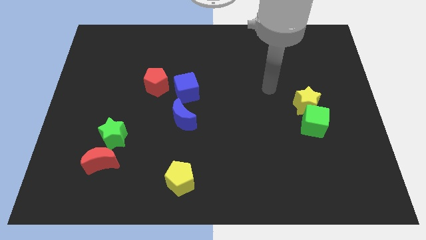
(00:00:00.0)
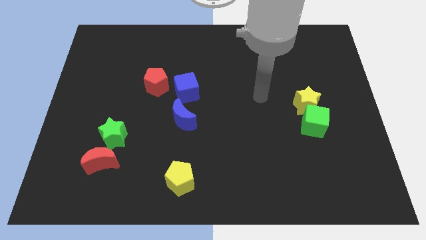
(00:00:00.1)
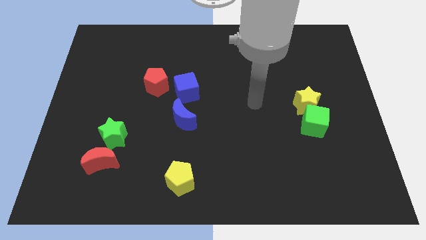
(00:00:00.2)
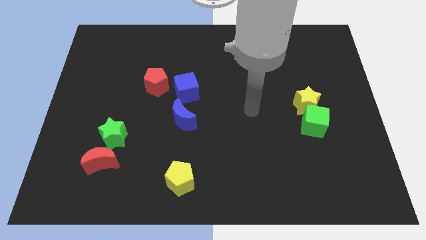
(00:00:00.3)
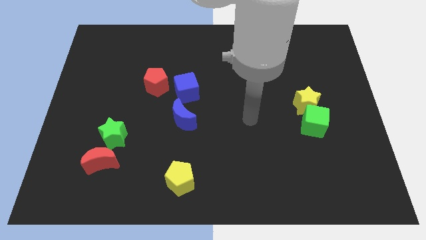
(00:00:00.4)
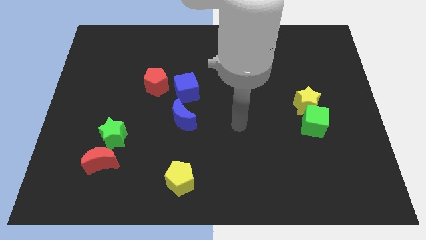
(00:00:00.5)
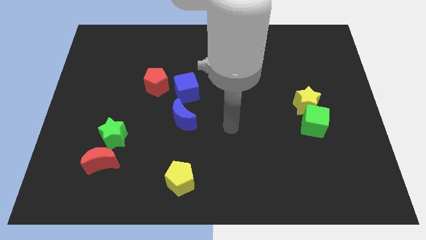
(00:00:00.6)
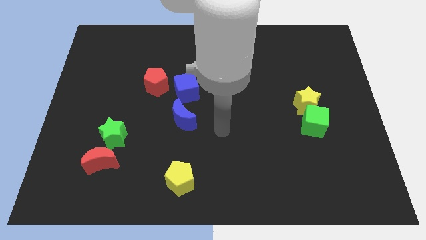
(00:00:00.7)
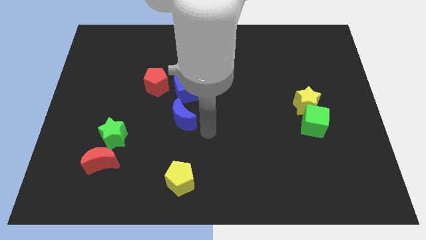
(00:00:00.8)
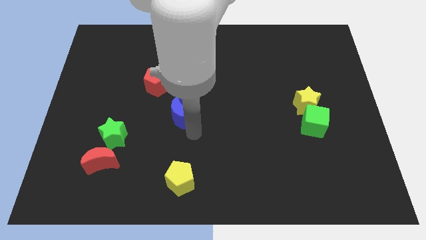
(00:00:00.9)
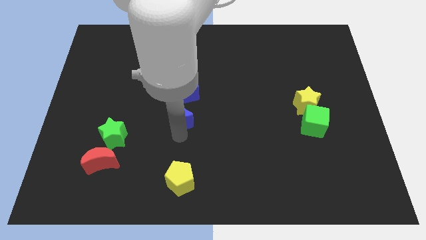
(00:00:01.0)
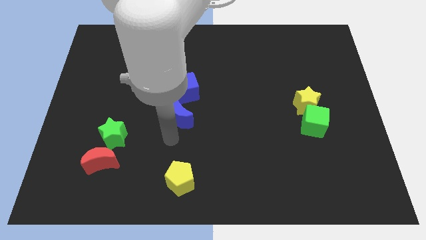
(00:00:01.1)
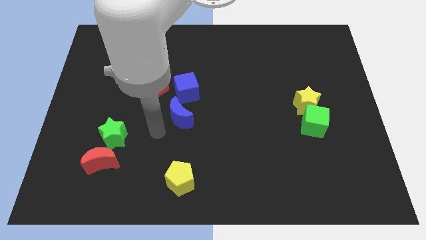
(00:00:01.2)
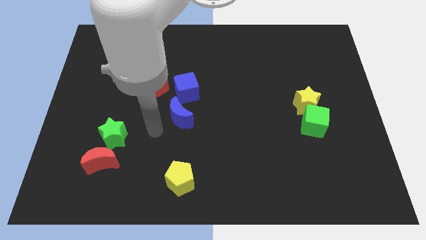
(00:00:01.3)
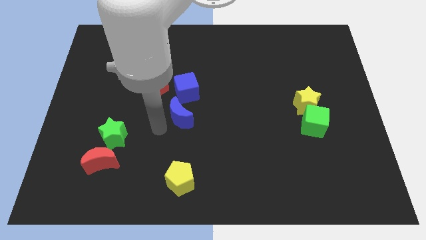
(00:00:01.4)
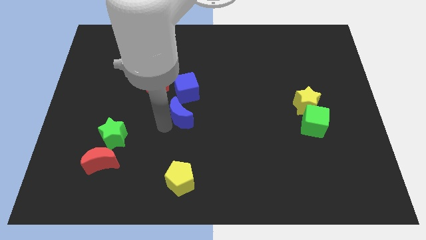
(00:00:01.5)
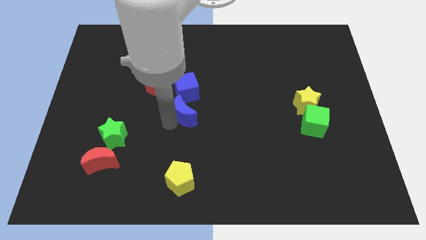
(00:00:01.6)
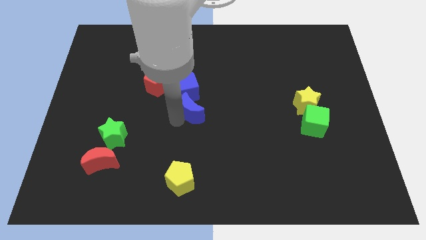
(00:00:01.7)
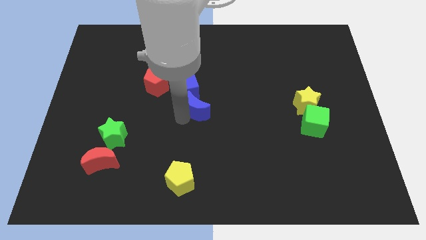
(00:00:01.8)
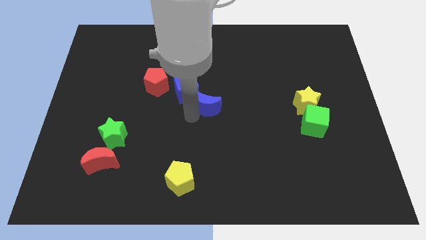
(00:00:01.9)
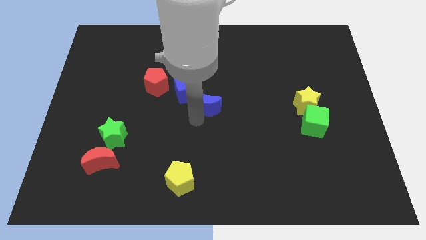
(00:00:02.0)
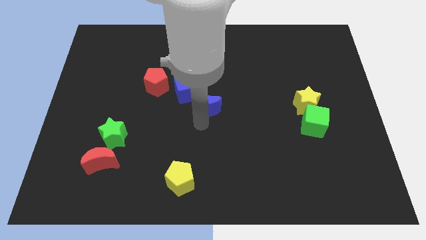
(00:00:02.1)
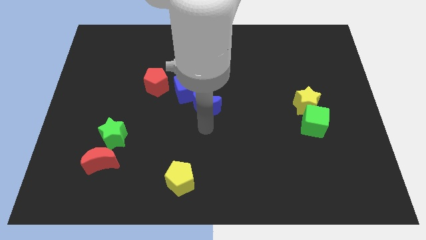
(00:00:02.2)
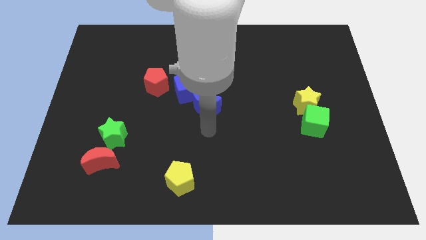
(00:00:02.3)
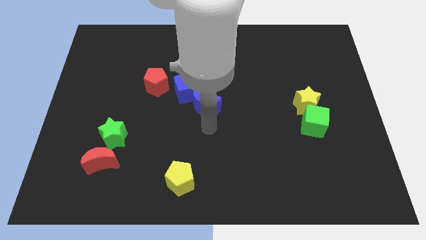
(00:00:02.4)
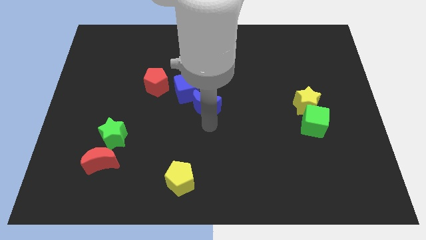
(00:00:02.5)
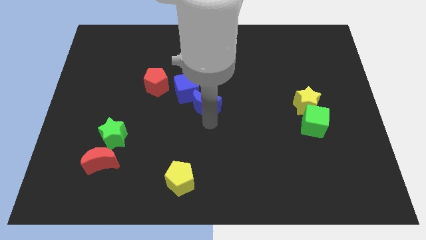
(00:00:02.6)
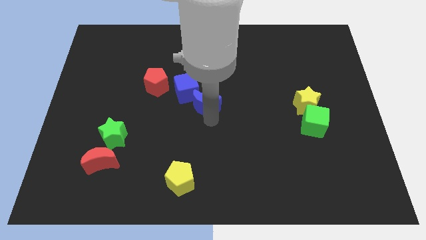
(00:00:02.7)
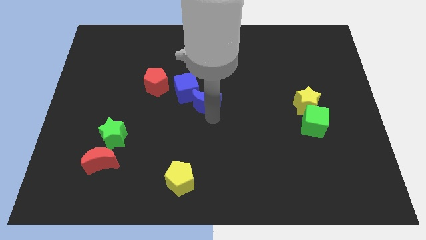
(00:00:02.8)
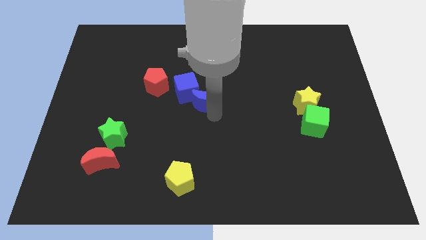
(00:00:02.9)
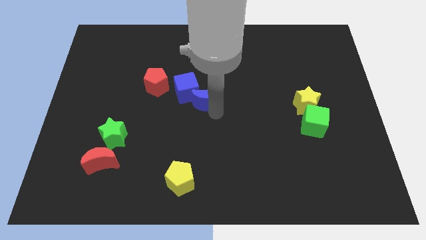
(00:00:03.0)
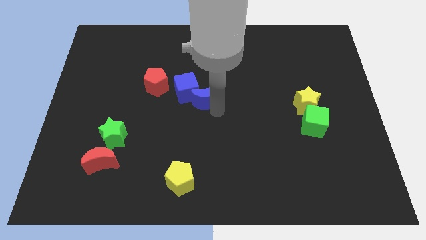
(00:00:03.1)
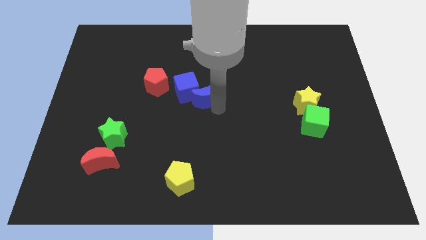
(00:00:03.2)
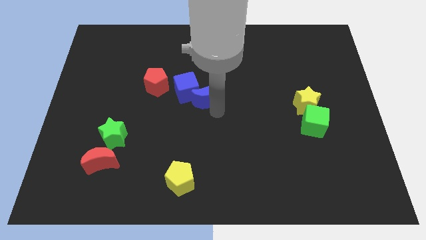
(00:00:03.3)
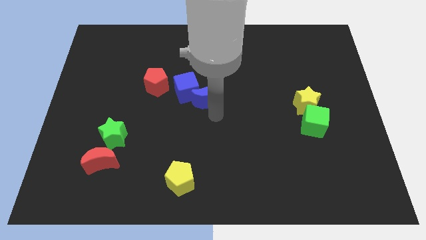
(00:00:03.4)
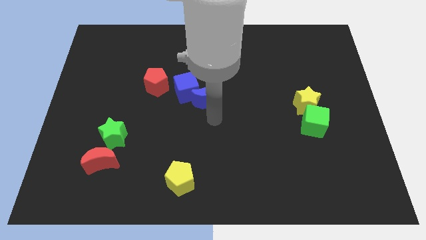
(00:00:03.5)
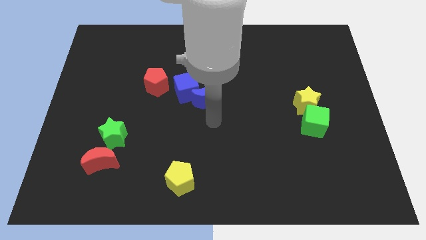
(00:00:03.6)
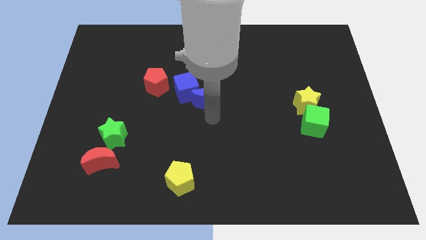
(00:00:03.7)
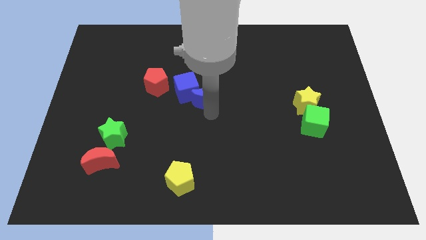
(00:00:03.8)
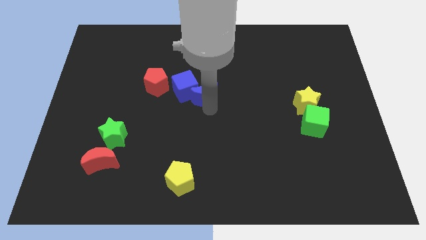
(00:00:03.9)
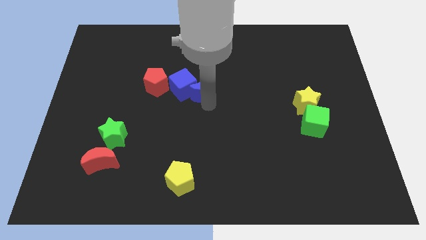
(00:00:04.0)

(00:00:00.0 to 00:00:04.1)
slightly push the blue moon up

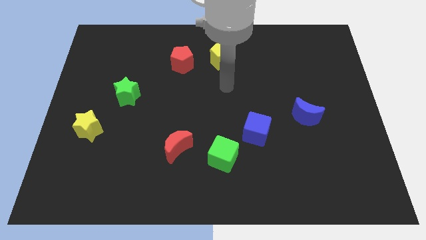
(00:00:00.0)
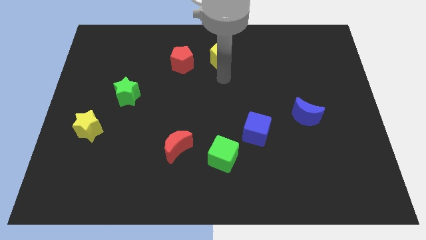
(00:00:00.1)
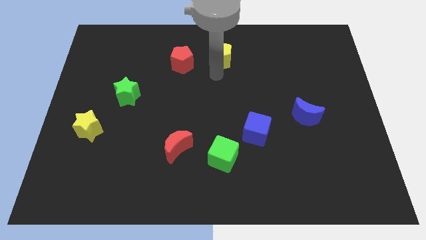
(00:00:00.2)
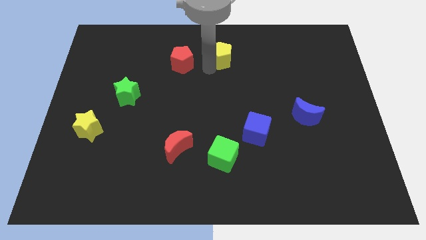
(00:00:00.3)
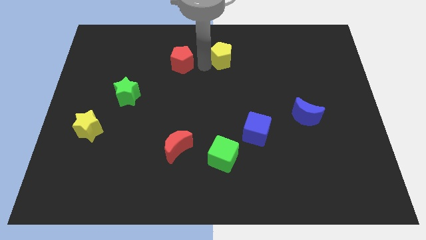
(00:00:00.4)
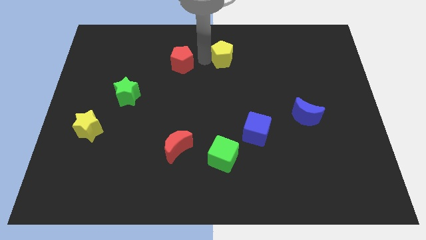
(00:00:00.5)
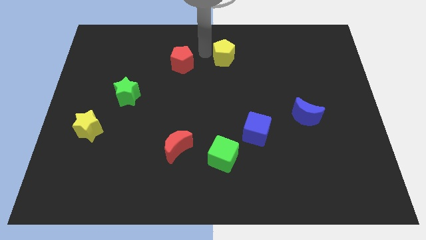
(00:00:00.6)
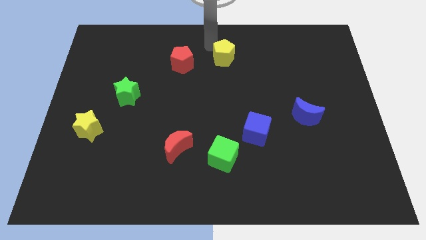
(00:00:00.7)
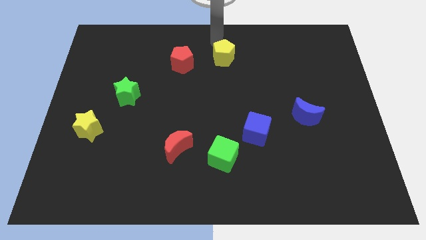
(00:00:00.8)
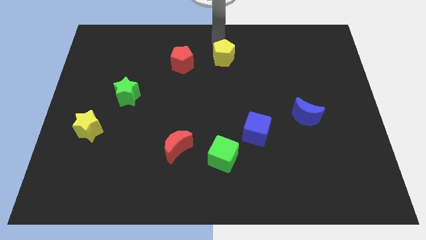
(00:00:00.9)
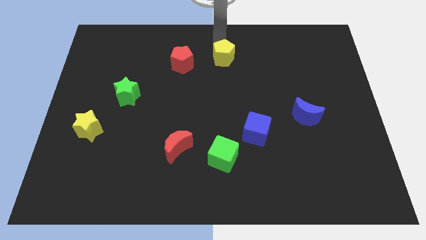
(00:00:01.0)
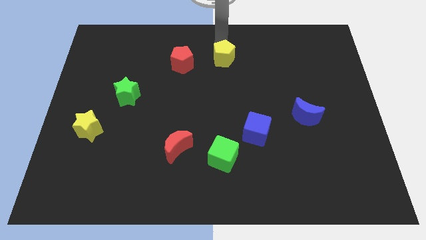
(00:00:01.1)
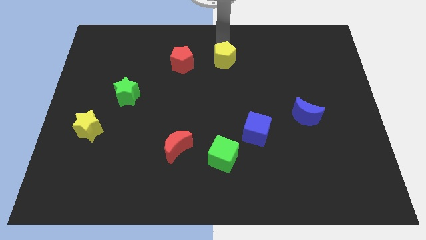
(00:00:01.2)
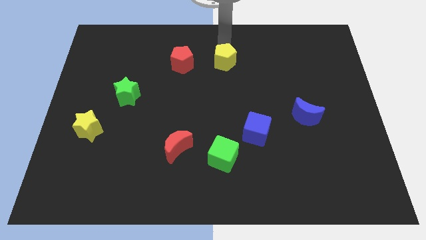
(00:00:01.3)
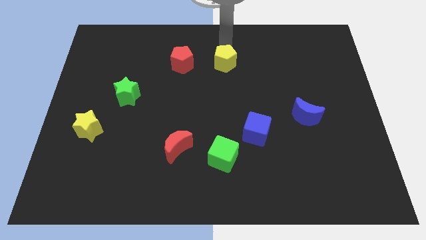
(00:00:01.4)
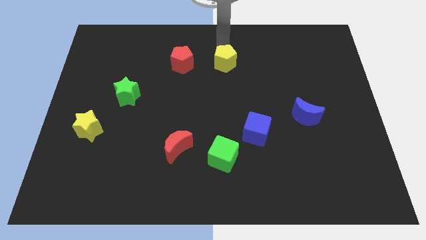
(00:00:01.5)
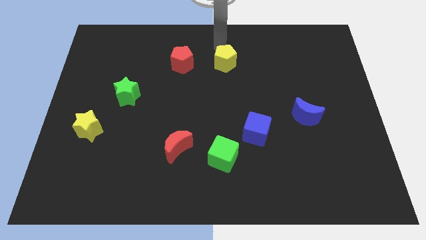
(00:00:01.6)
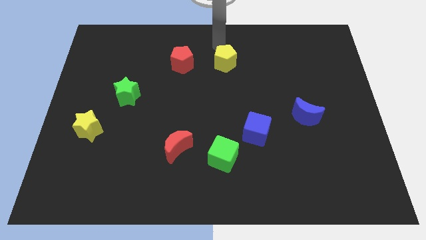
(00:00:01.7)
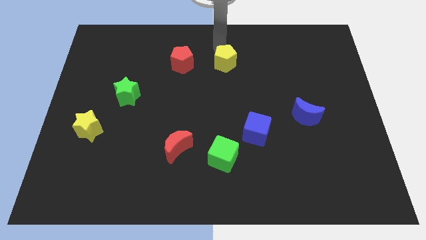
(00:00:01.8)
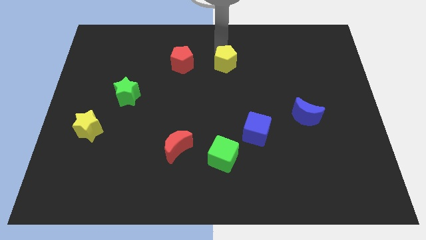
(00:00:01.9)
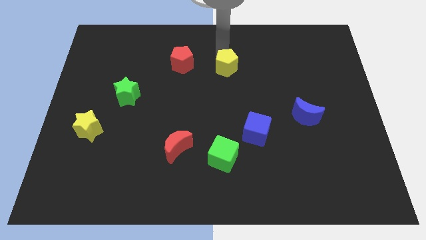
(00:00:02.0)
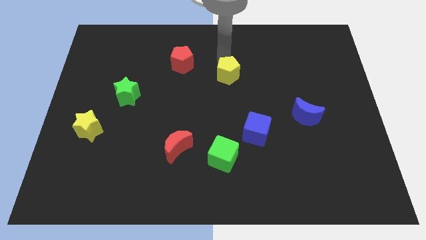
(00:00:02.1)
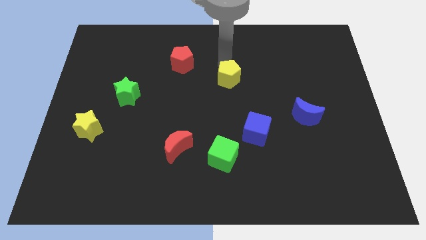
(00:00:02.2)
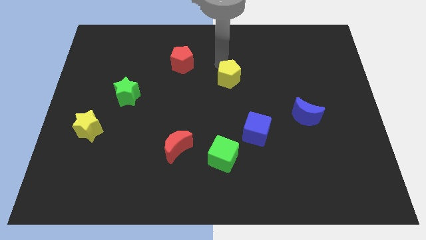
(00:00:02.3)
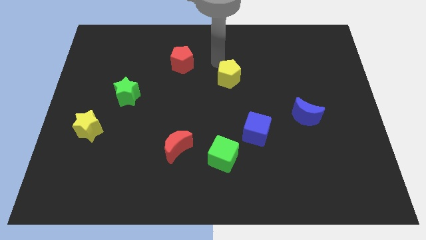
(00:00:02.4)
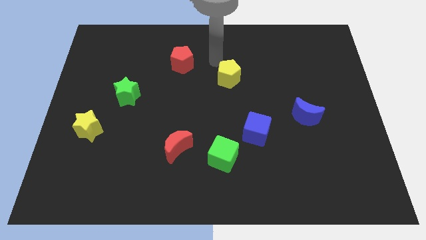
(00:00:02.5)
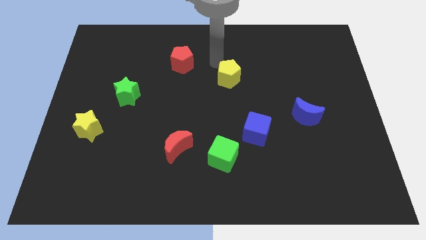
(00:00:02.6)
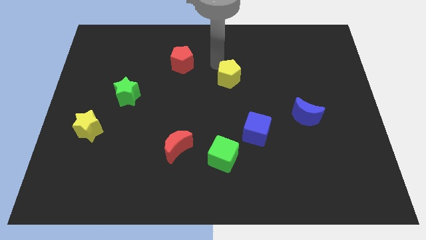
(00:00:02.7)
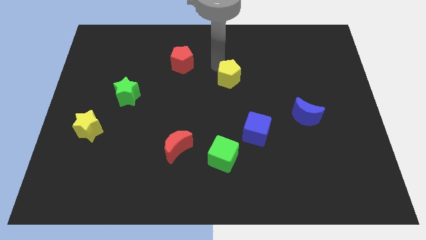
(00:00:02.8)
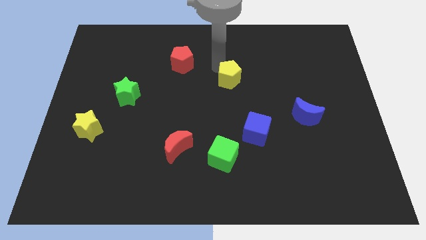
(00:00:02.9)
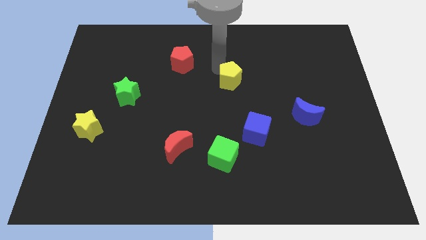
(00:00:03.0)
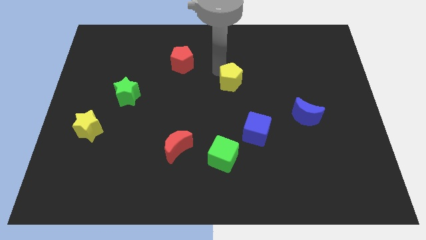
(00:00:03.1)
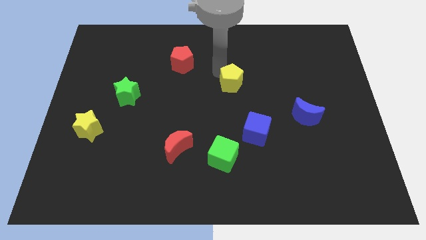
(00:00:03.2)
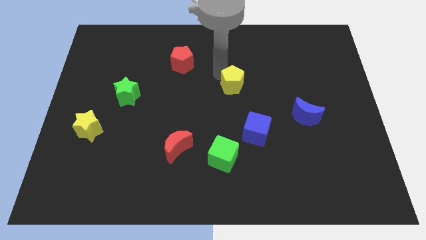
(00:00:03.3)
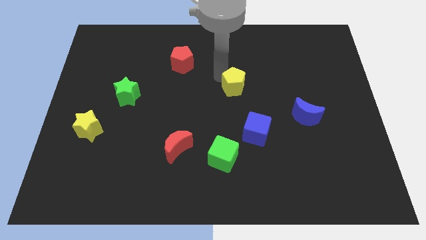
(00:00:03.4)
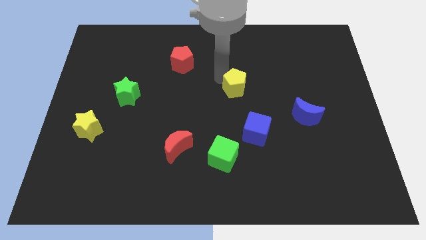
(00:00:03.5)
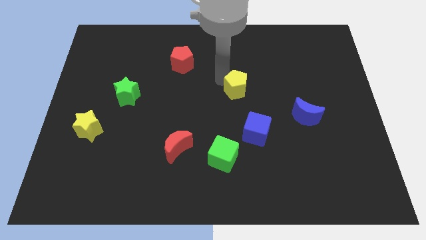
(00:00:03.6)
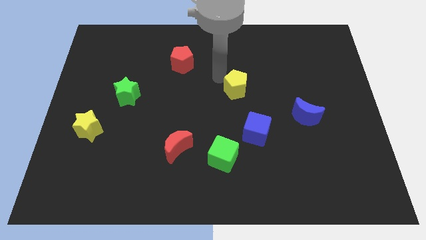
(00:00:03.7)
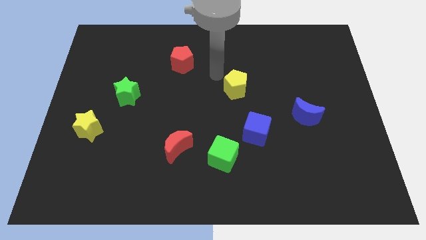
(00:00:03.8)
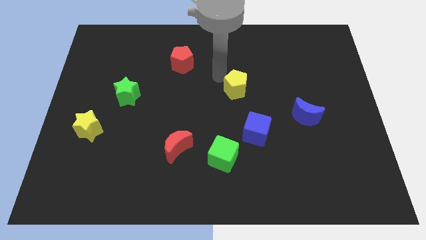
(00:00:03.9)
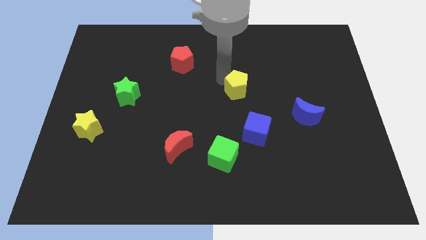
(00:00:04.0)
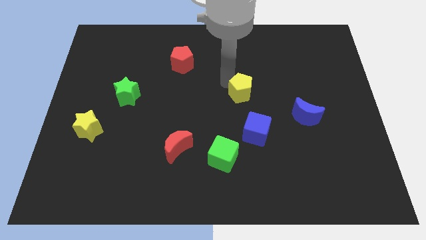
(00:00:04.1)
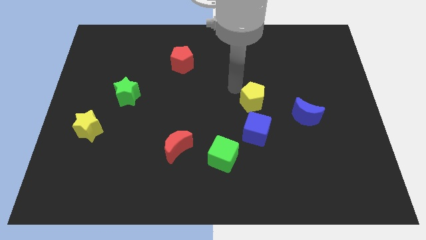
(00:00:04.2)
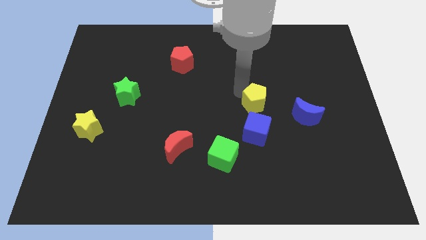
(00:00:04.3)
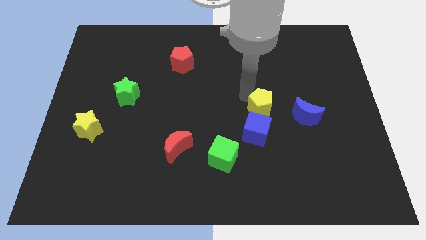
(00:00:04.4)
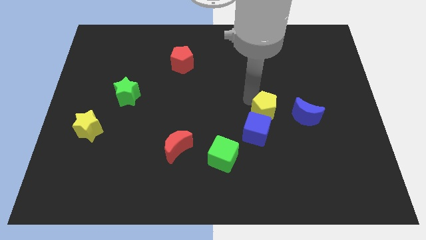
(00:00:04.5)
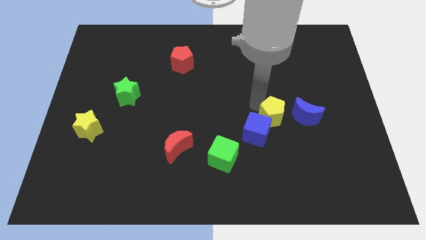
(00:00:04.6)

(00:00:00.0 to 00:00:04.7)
push the yellow pentagon down and then right
